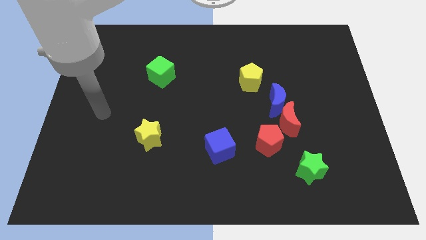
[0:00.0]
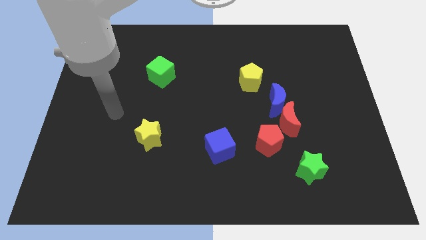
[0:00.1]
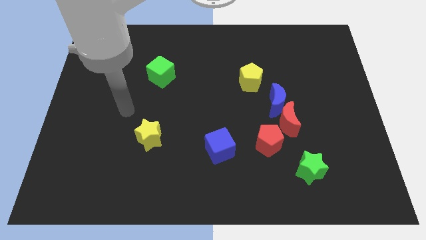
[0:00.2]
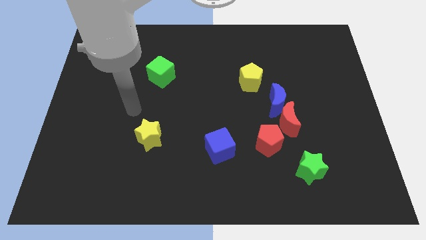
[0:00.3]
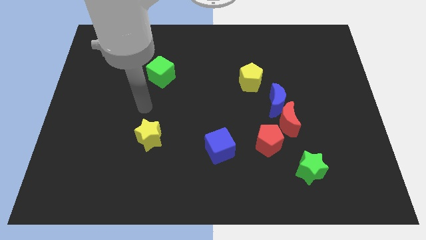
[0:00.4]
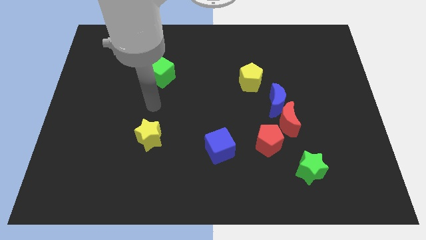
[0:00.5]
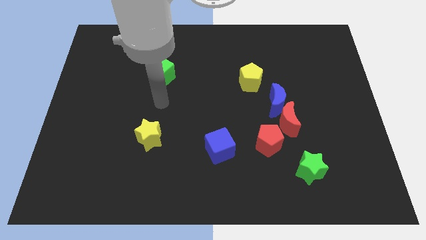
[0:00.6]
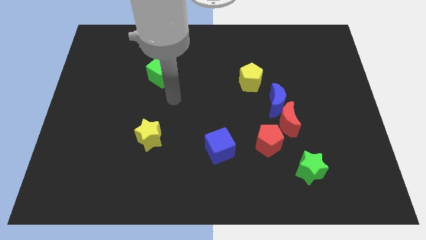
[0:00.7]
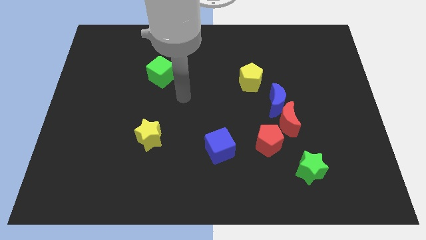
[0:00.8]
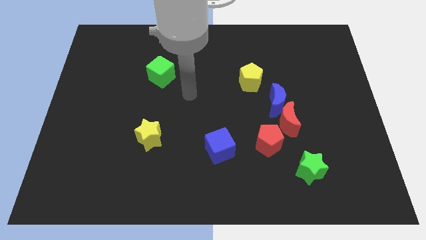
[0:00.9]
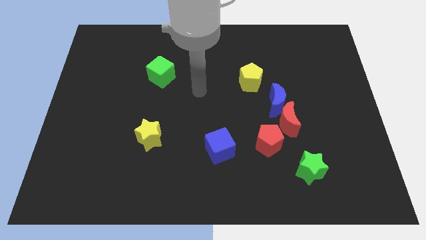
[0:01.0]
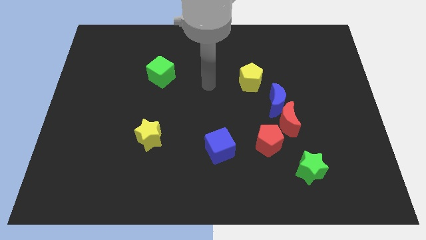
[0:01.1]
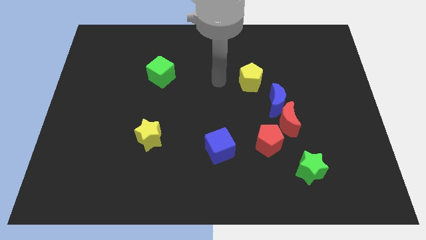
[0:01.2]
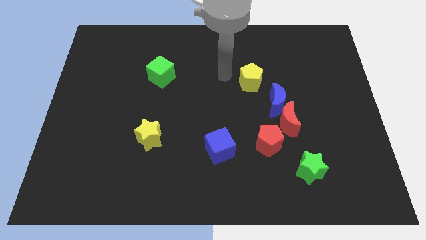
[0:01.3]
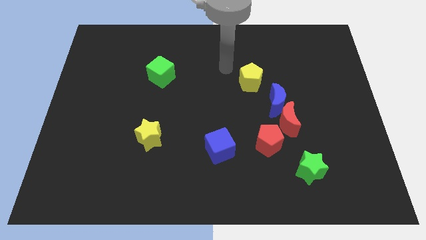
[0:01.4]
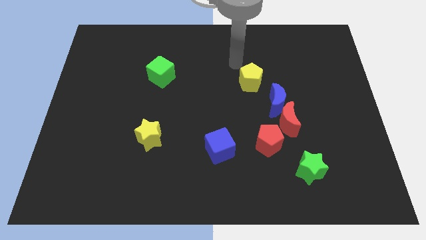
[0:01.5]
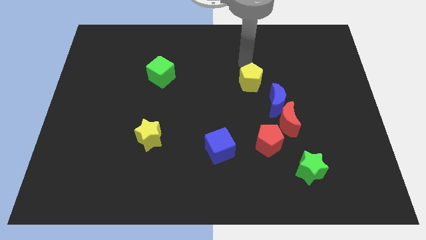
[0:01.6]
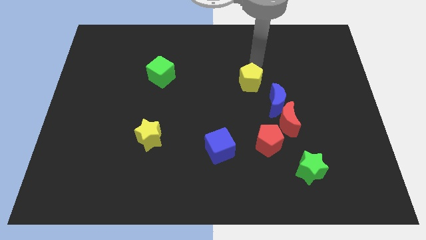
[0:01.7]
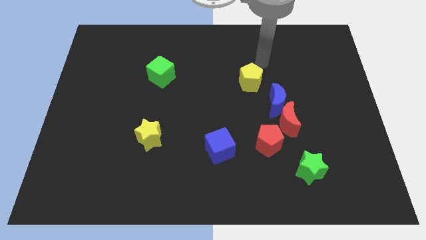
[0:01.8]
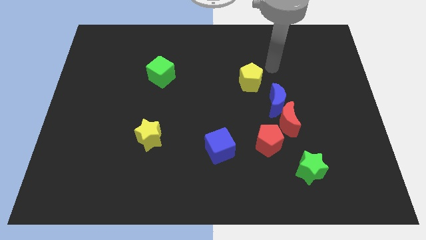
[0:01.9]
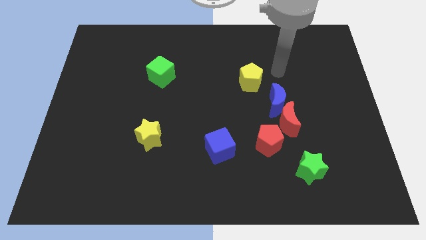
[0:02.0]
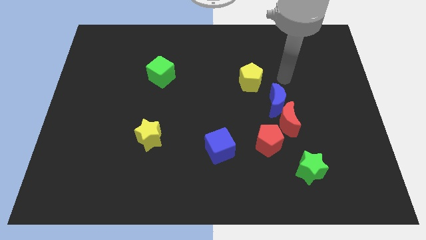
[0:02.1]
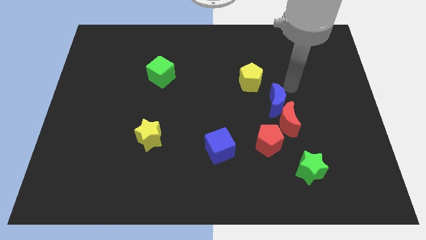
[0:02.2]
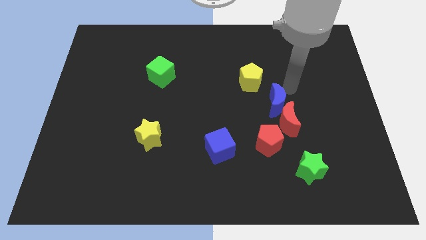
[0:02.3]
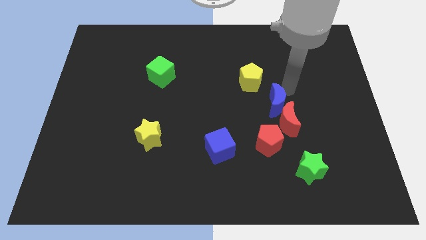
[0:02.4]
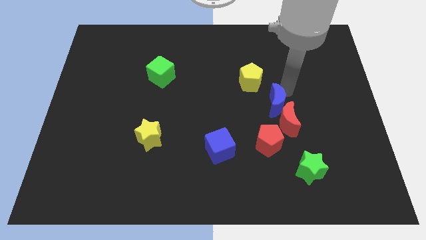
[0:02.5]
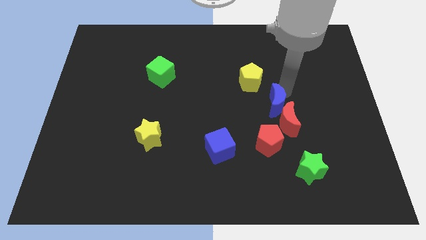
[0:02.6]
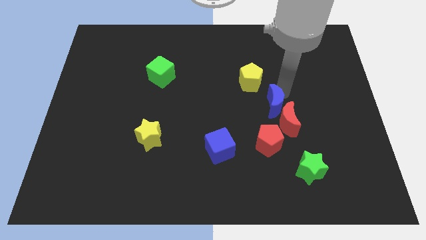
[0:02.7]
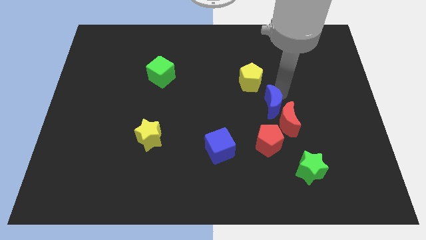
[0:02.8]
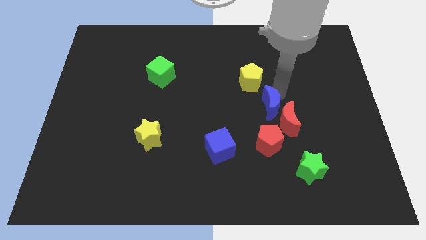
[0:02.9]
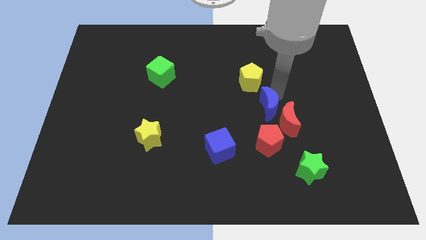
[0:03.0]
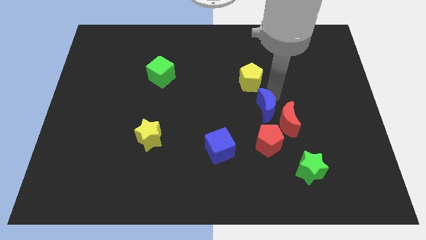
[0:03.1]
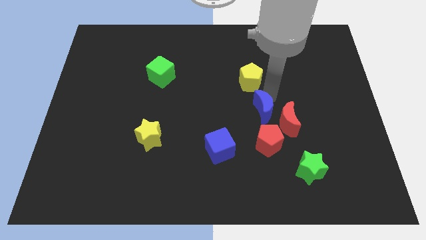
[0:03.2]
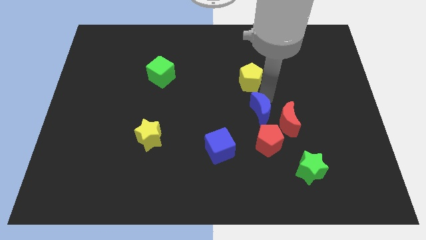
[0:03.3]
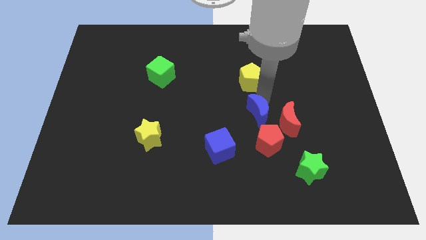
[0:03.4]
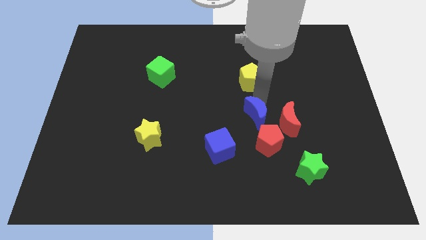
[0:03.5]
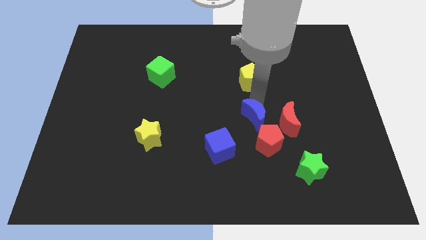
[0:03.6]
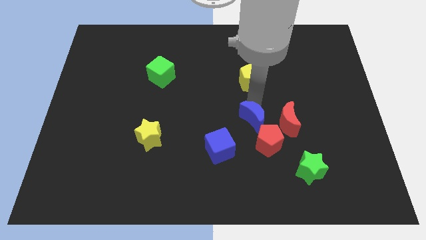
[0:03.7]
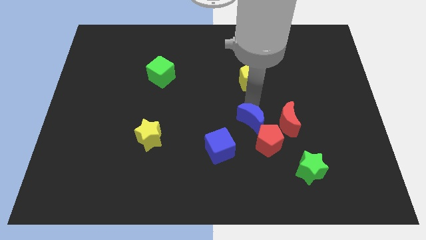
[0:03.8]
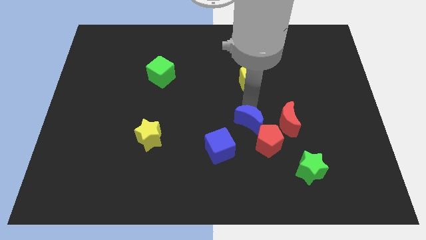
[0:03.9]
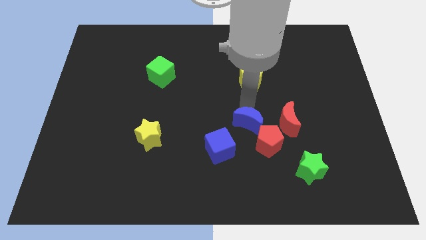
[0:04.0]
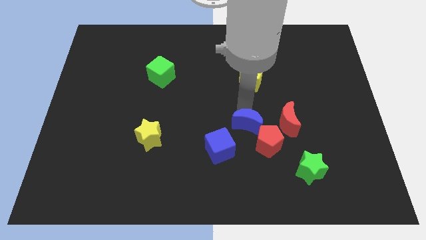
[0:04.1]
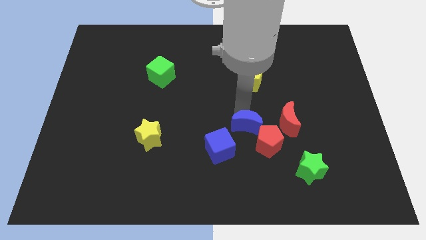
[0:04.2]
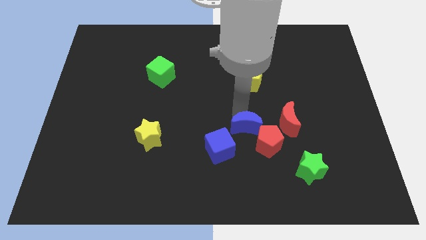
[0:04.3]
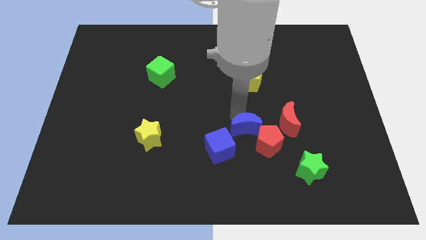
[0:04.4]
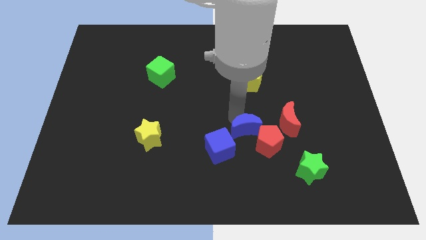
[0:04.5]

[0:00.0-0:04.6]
move the blue moon close to the red pentagon

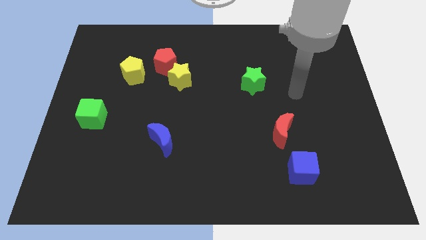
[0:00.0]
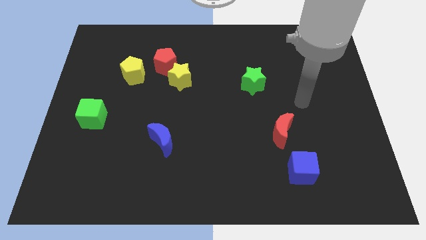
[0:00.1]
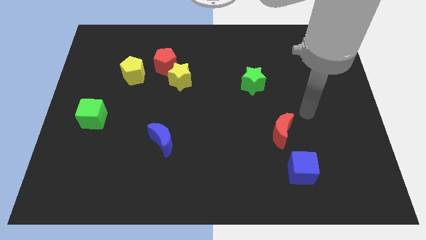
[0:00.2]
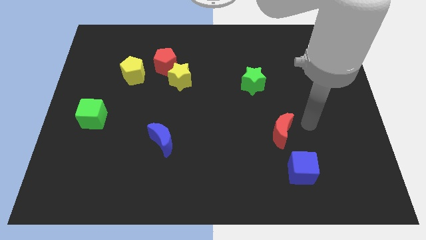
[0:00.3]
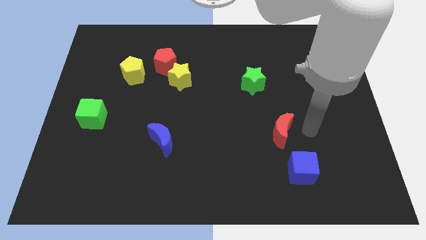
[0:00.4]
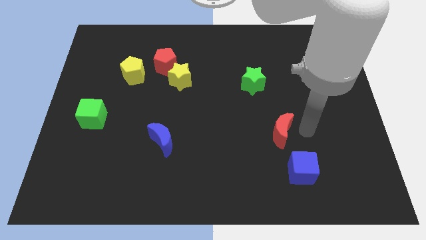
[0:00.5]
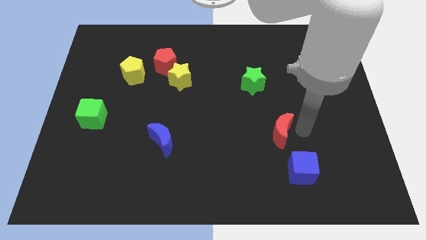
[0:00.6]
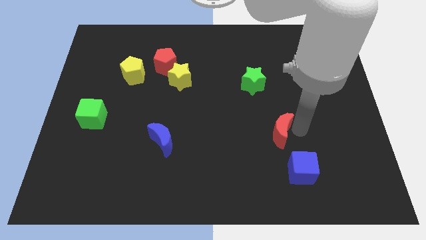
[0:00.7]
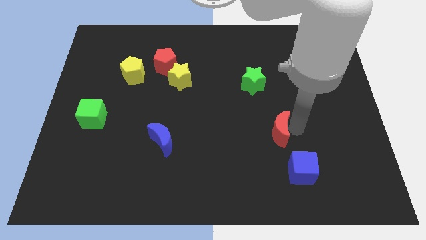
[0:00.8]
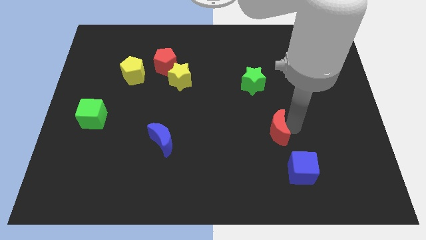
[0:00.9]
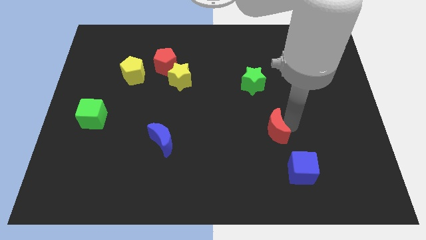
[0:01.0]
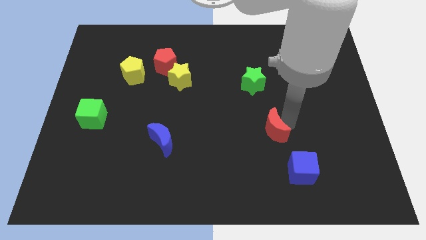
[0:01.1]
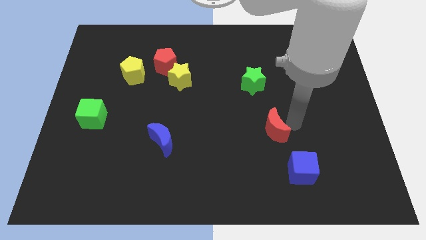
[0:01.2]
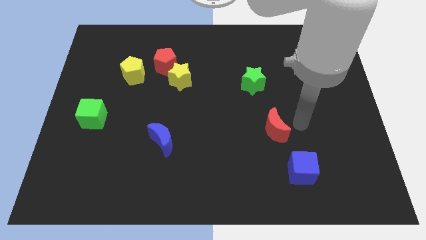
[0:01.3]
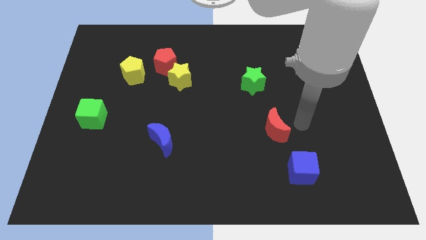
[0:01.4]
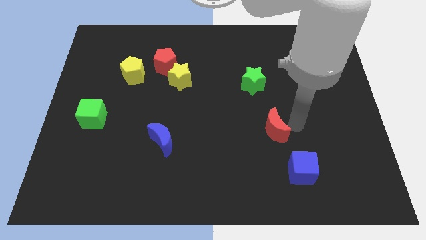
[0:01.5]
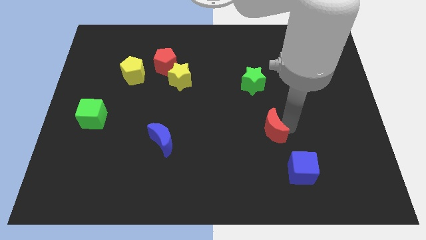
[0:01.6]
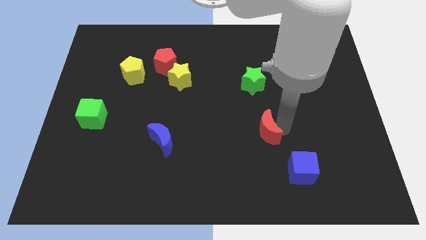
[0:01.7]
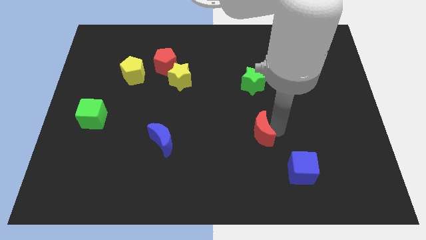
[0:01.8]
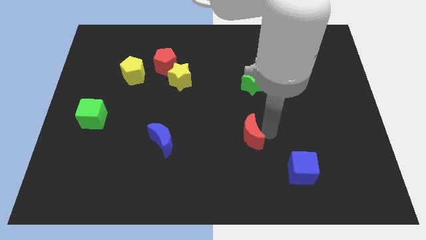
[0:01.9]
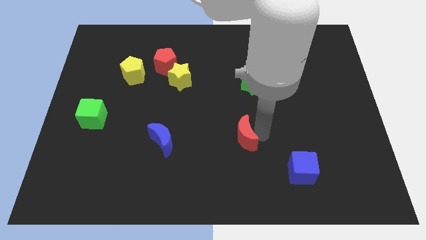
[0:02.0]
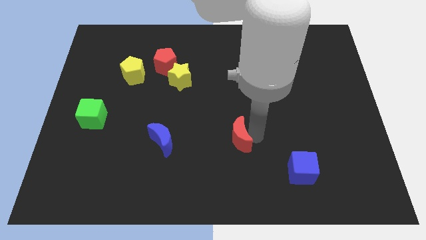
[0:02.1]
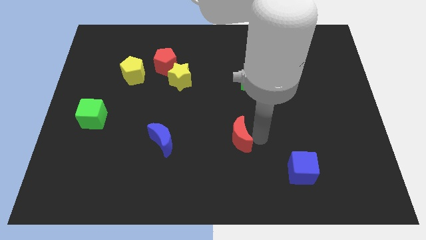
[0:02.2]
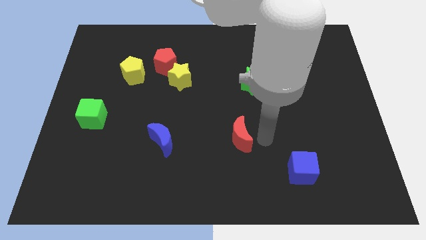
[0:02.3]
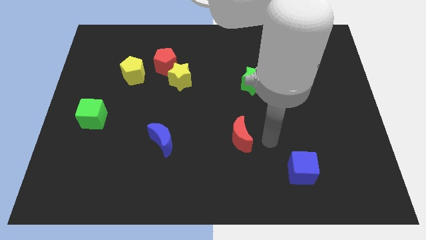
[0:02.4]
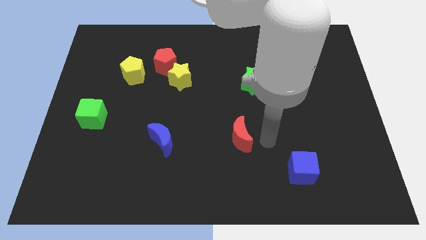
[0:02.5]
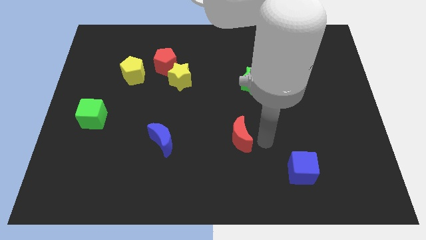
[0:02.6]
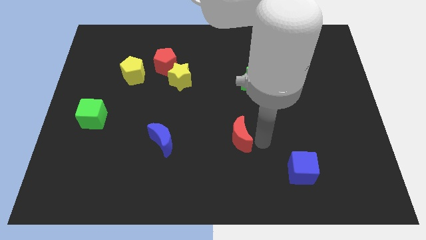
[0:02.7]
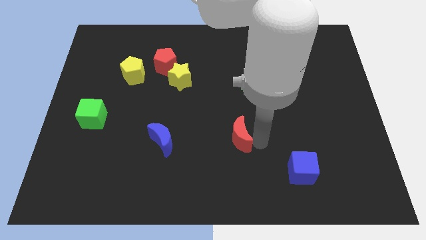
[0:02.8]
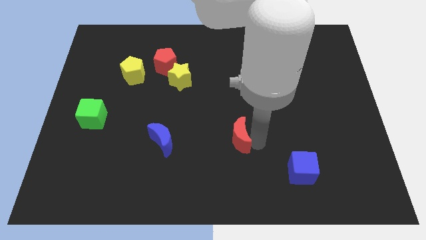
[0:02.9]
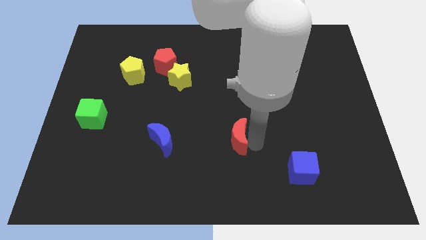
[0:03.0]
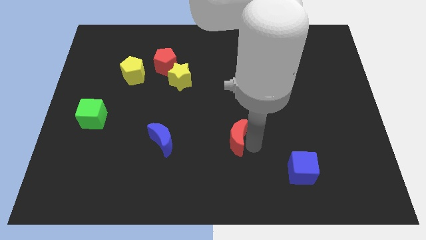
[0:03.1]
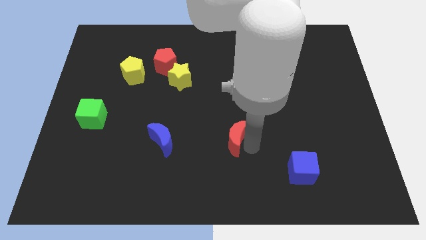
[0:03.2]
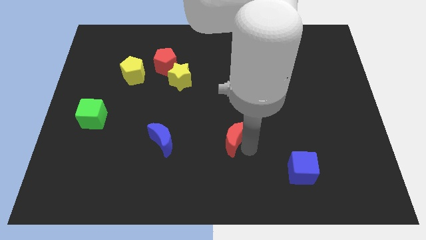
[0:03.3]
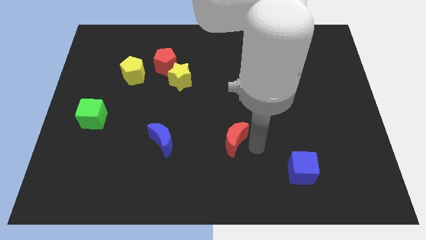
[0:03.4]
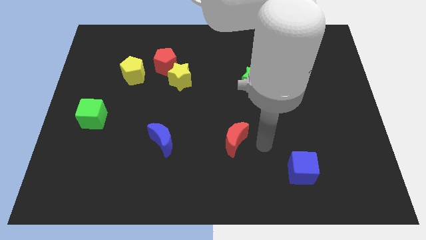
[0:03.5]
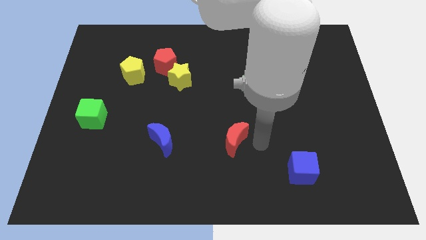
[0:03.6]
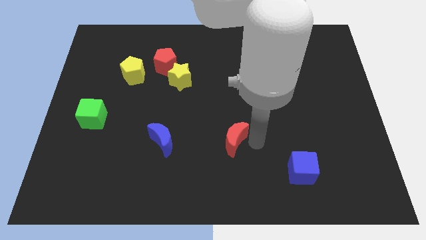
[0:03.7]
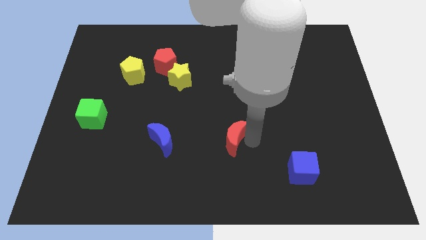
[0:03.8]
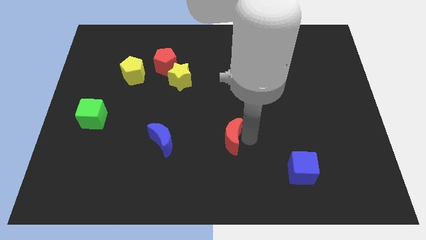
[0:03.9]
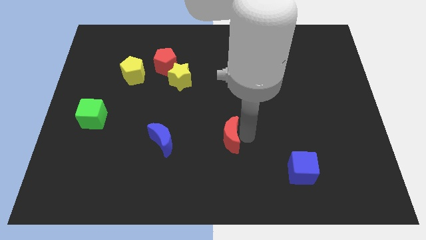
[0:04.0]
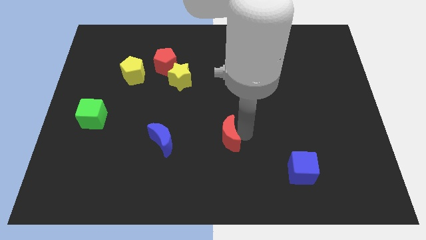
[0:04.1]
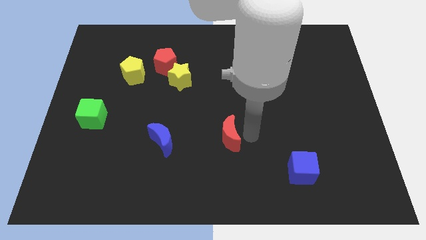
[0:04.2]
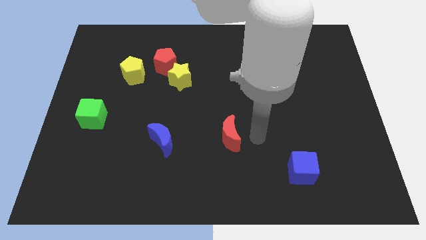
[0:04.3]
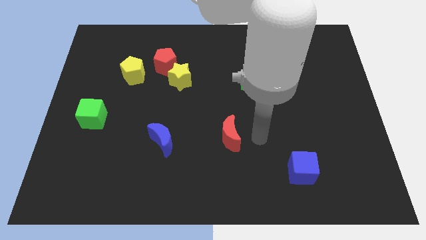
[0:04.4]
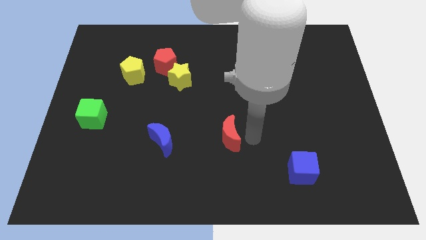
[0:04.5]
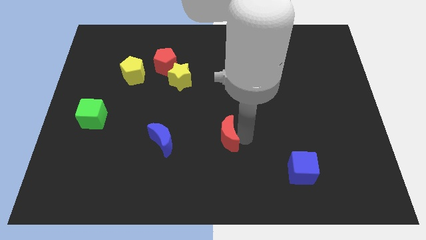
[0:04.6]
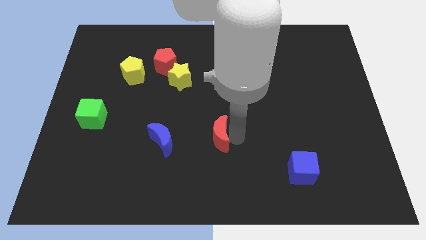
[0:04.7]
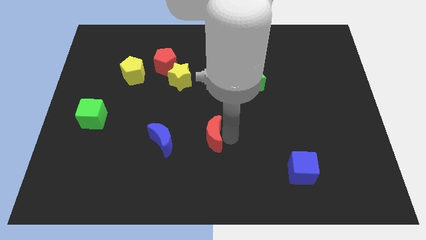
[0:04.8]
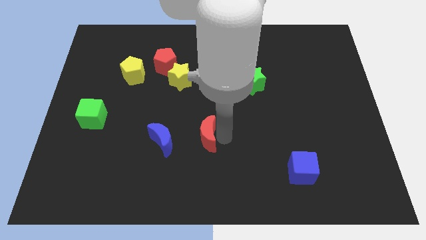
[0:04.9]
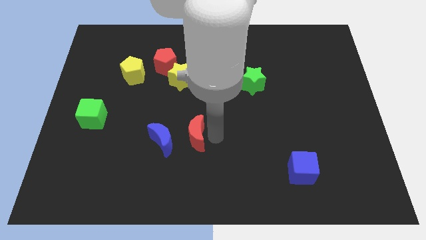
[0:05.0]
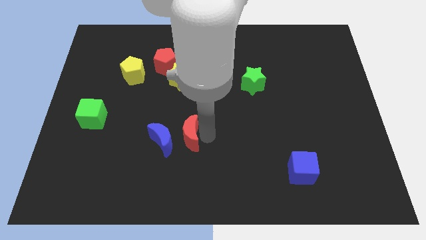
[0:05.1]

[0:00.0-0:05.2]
slide the red moon close to the blue moon
